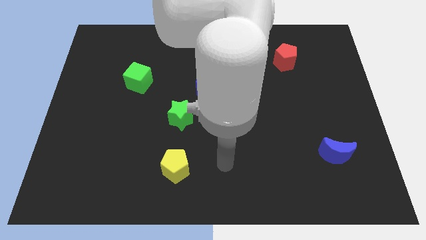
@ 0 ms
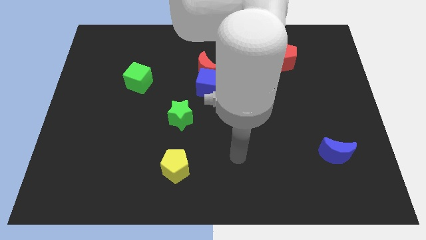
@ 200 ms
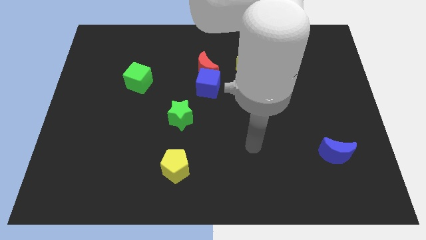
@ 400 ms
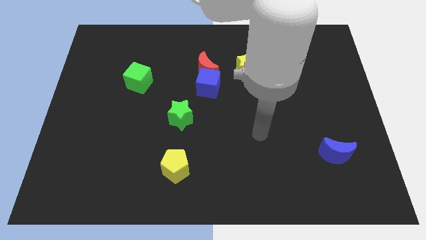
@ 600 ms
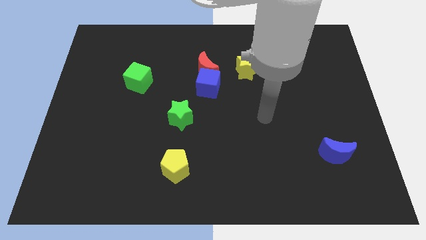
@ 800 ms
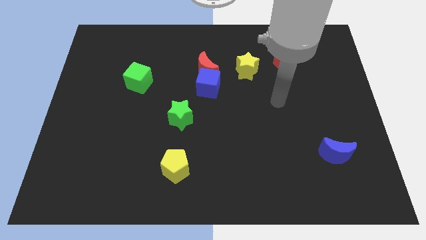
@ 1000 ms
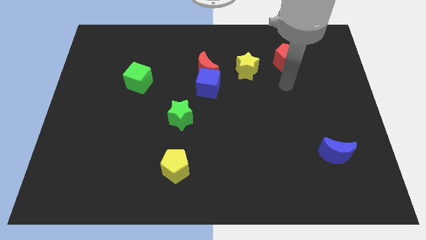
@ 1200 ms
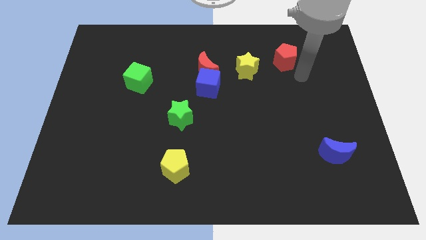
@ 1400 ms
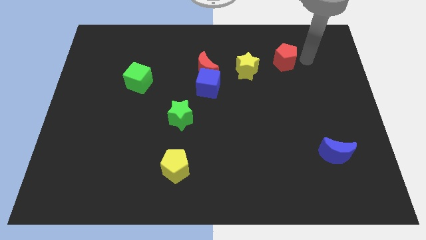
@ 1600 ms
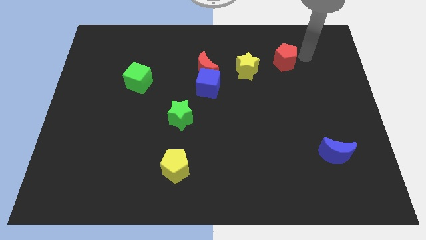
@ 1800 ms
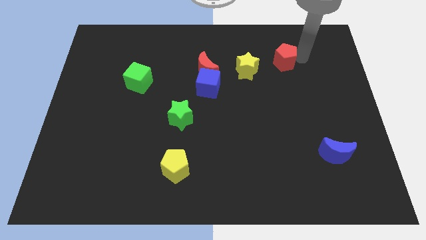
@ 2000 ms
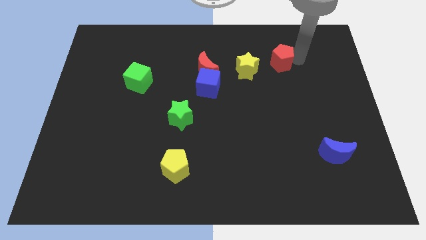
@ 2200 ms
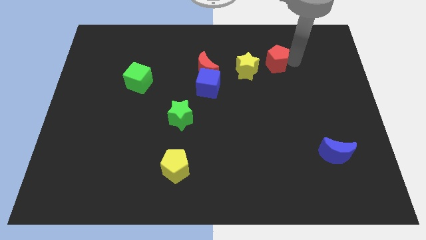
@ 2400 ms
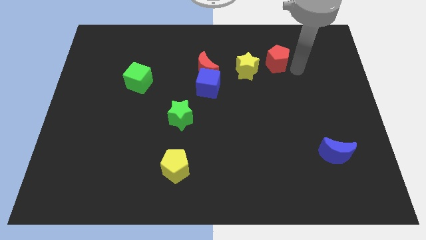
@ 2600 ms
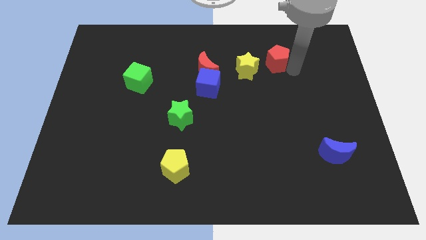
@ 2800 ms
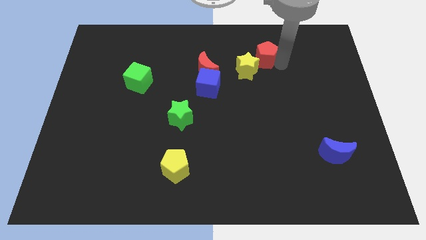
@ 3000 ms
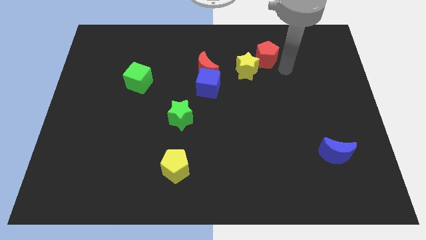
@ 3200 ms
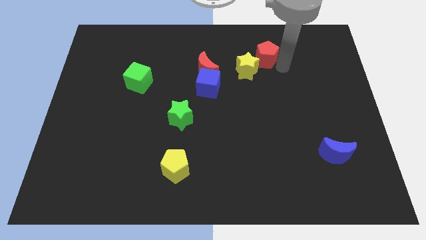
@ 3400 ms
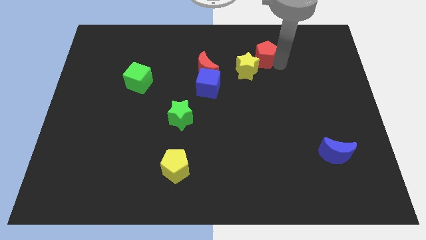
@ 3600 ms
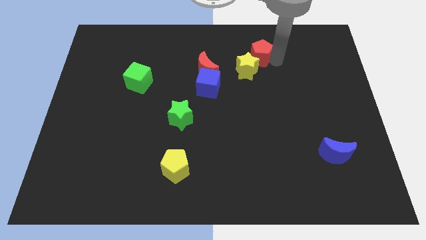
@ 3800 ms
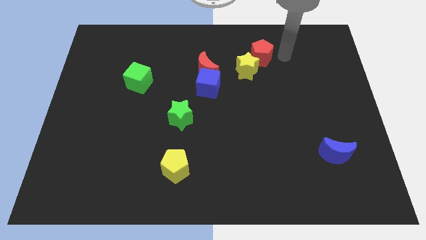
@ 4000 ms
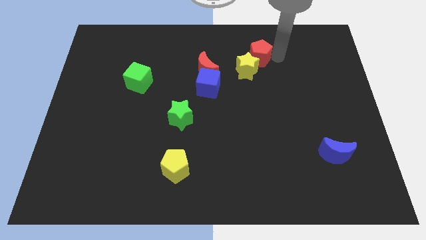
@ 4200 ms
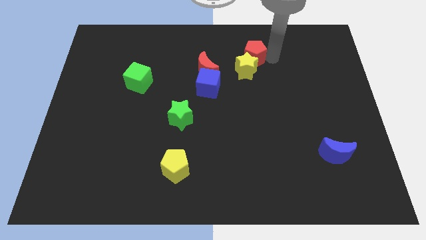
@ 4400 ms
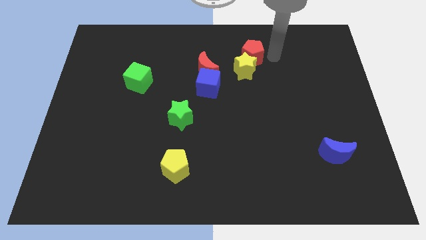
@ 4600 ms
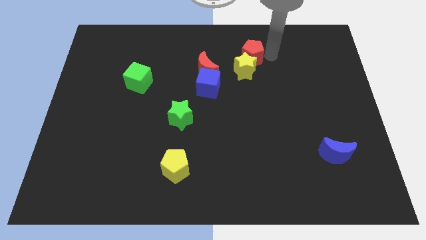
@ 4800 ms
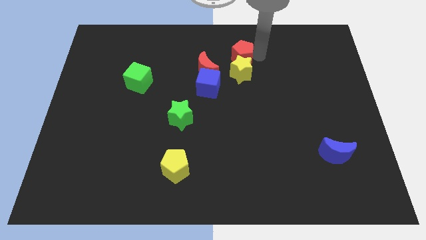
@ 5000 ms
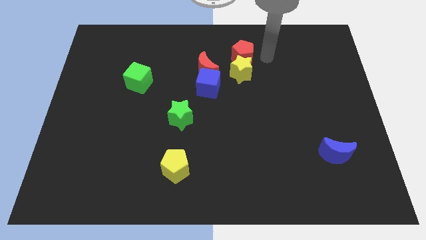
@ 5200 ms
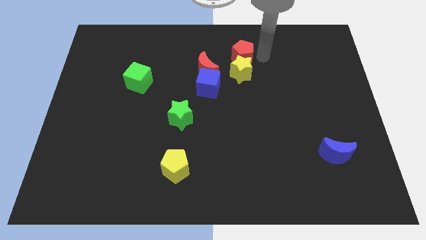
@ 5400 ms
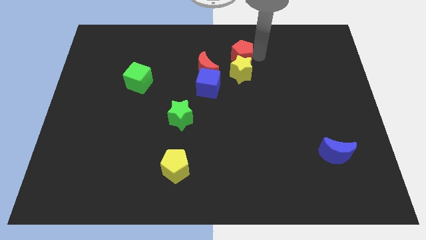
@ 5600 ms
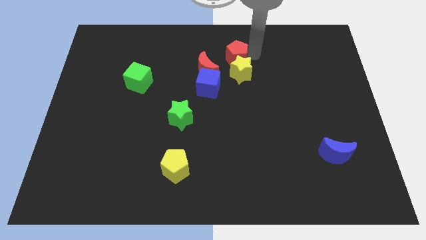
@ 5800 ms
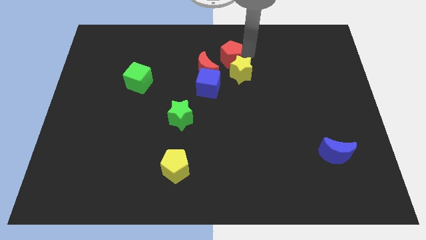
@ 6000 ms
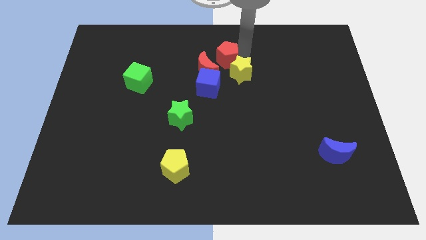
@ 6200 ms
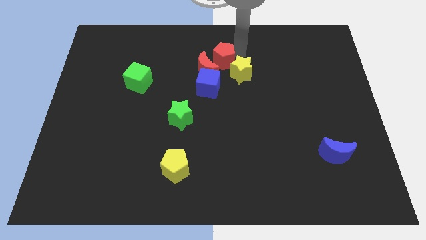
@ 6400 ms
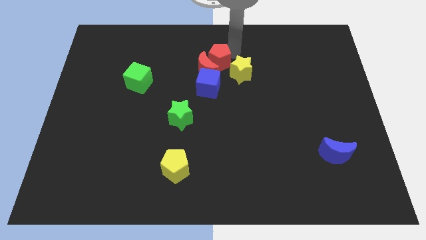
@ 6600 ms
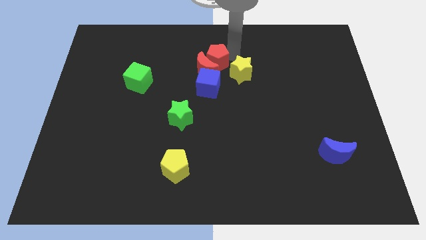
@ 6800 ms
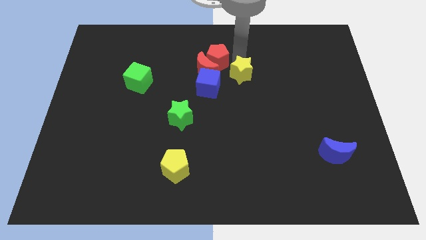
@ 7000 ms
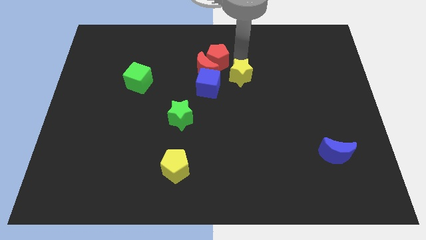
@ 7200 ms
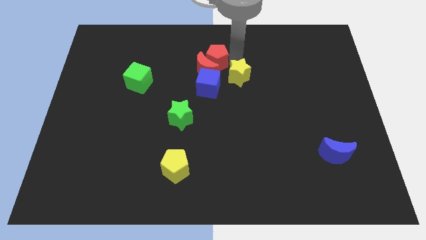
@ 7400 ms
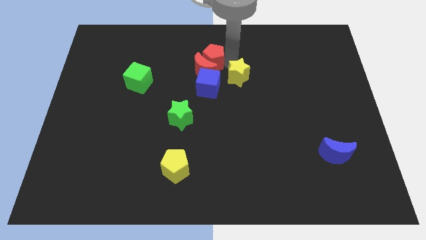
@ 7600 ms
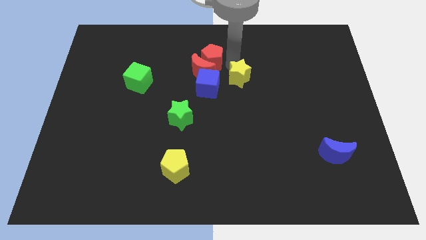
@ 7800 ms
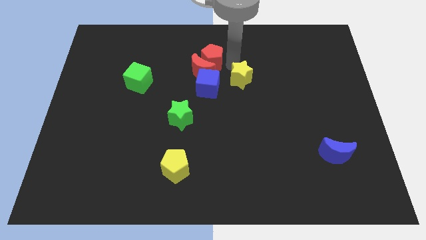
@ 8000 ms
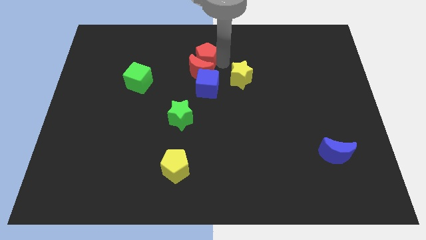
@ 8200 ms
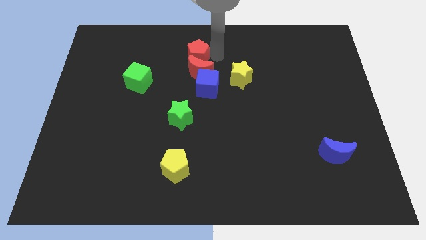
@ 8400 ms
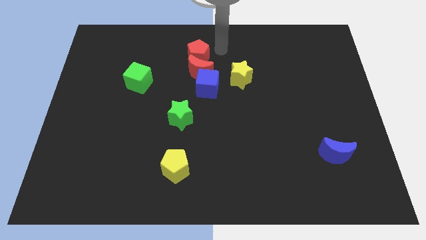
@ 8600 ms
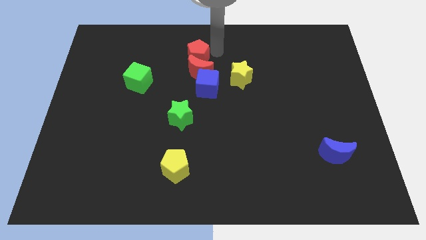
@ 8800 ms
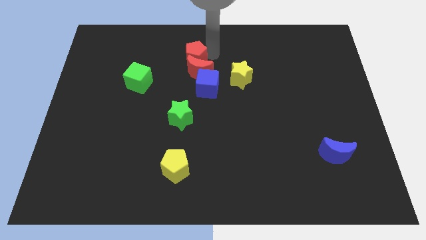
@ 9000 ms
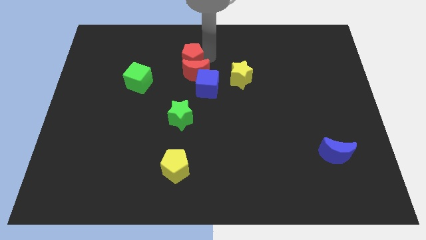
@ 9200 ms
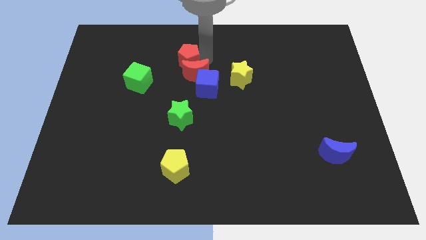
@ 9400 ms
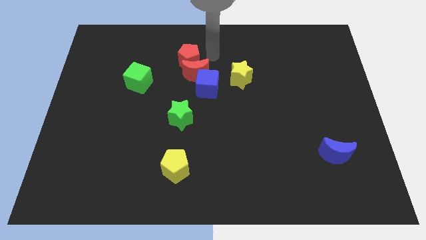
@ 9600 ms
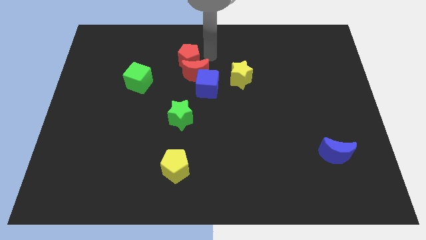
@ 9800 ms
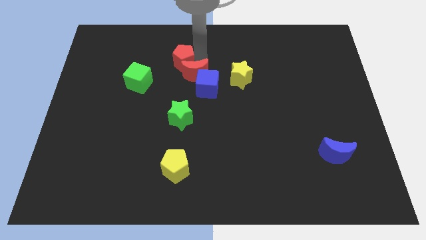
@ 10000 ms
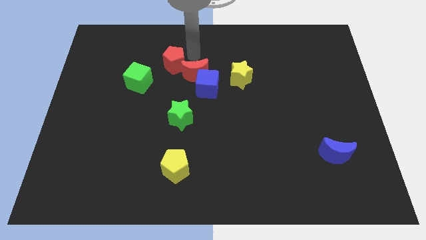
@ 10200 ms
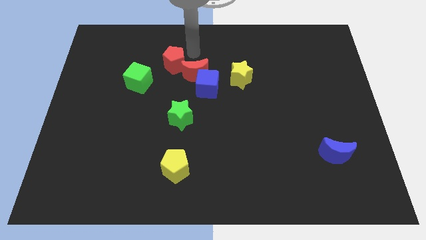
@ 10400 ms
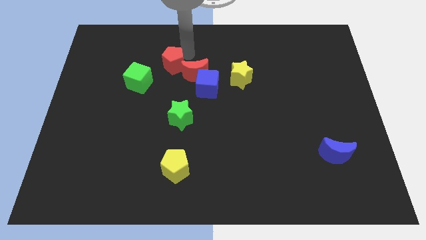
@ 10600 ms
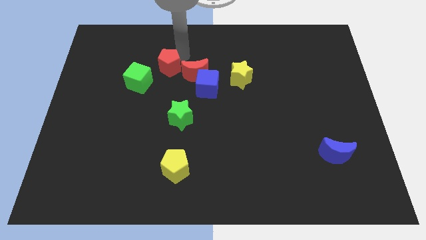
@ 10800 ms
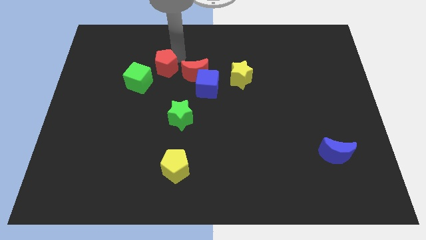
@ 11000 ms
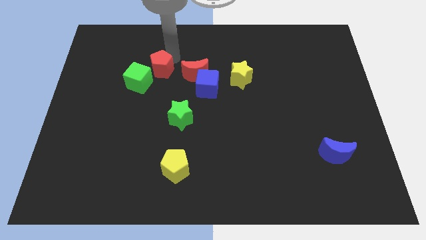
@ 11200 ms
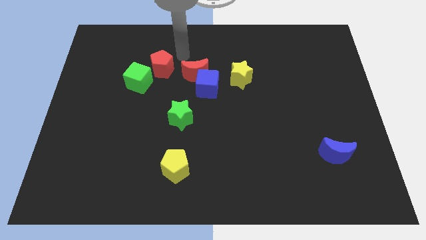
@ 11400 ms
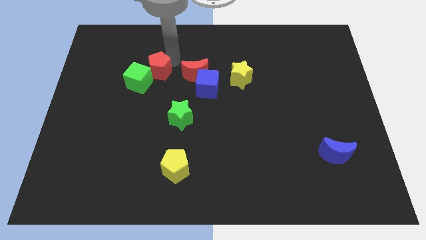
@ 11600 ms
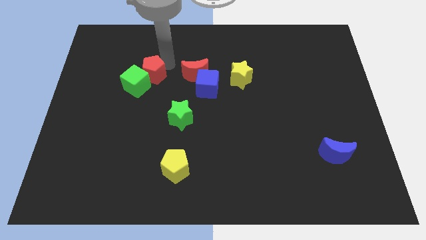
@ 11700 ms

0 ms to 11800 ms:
push the red pentagon towards the green cube

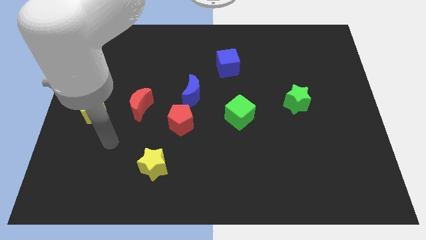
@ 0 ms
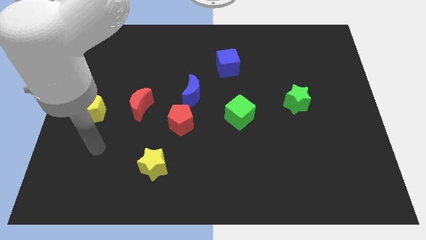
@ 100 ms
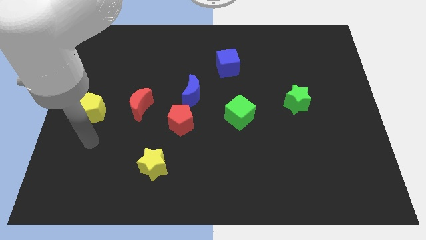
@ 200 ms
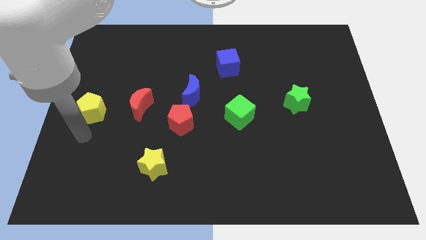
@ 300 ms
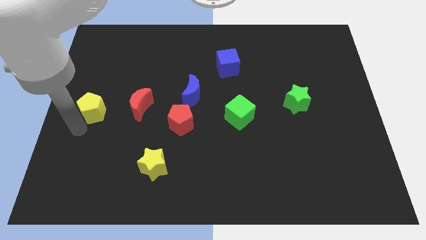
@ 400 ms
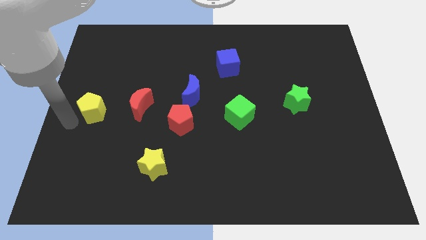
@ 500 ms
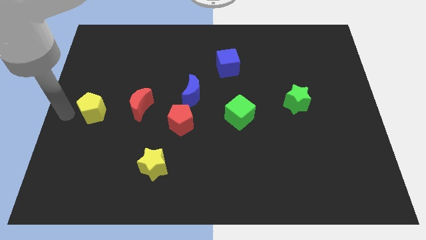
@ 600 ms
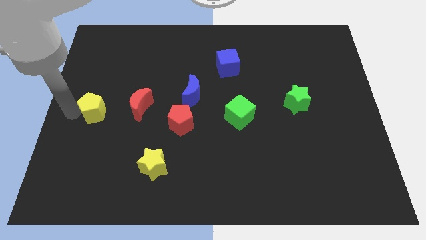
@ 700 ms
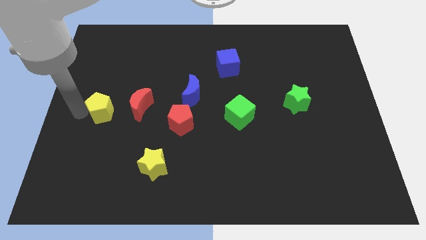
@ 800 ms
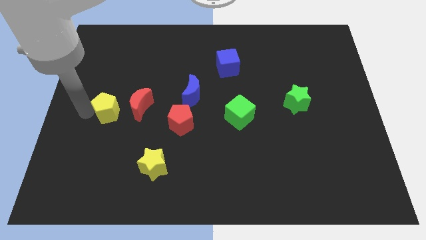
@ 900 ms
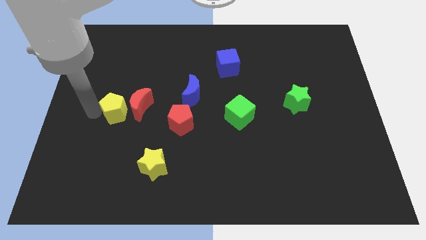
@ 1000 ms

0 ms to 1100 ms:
move the yellow pentagon to the red moon

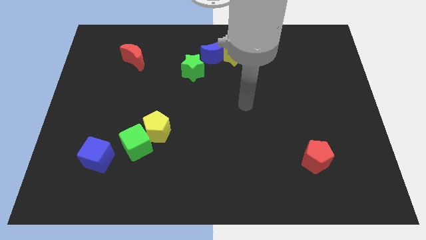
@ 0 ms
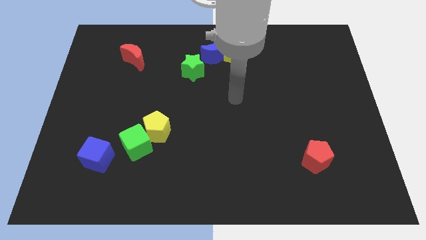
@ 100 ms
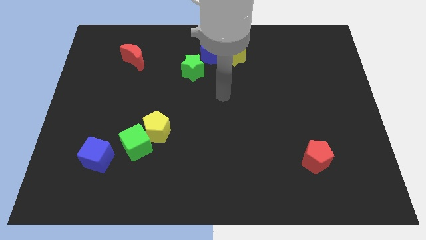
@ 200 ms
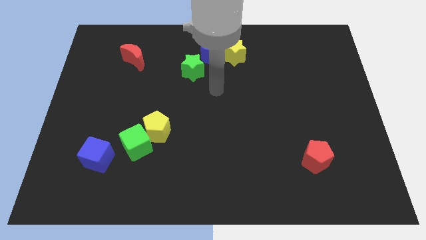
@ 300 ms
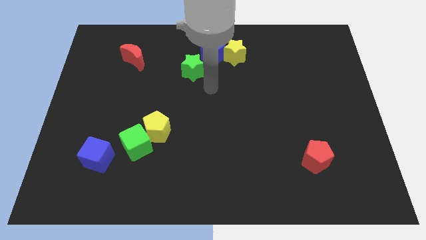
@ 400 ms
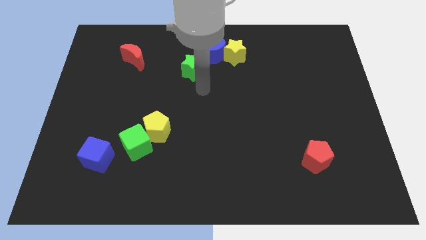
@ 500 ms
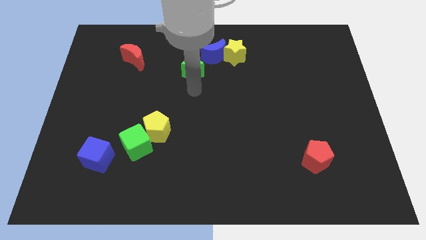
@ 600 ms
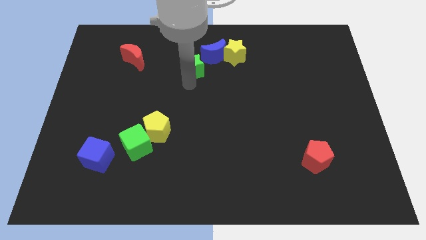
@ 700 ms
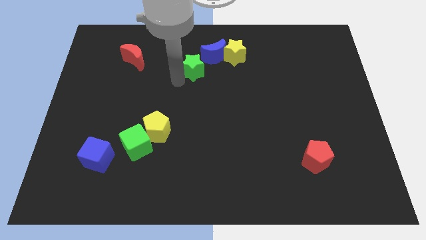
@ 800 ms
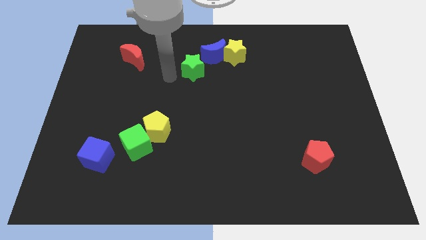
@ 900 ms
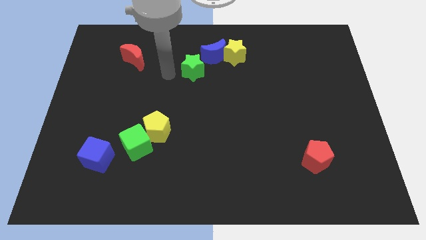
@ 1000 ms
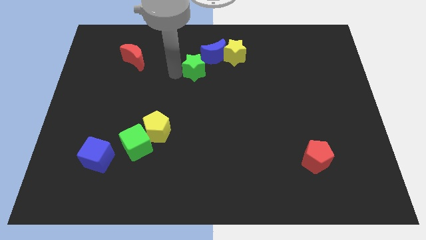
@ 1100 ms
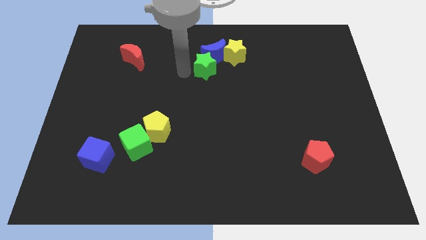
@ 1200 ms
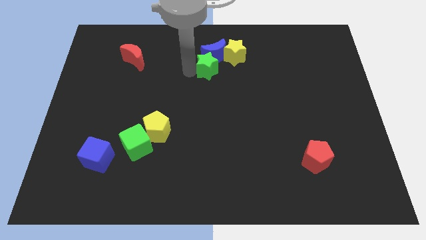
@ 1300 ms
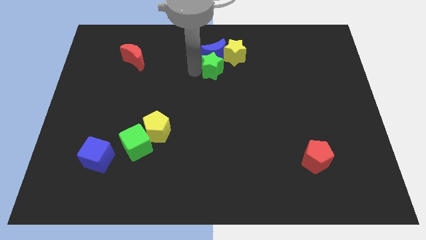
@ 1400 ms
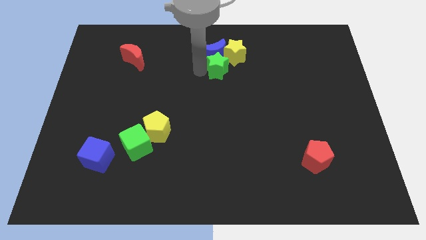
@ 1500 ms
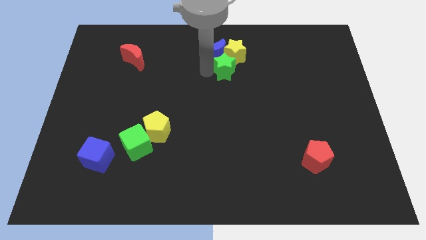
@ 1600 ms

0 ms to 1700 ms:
slide the green star towards the yellow star
